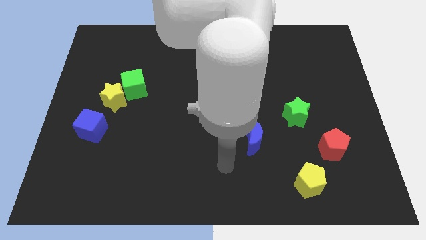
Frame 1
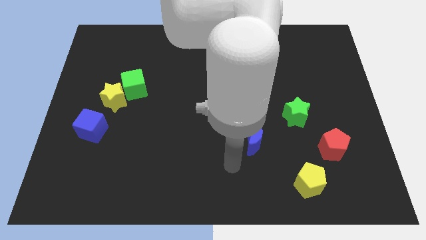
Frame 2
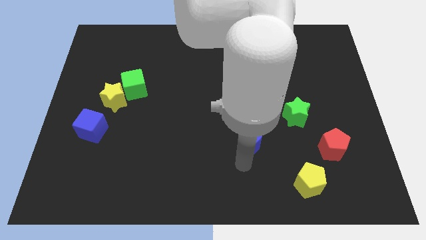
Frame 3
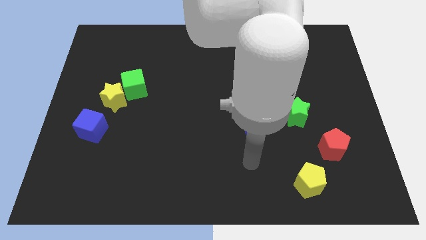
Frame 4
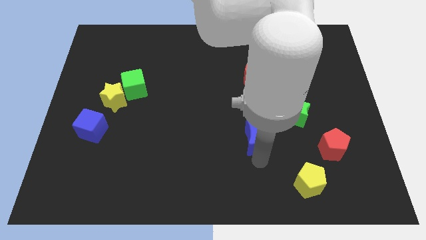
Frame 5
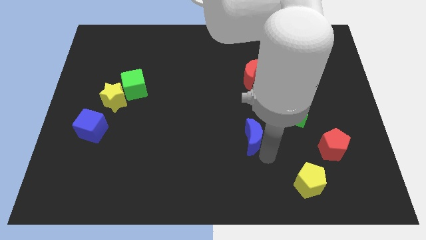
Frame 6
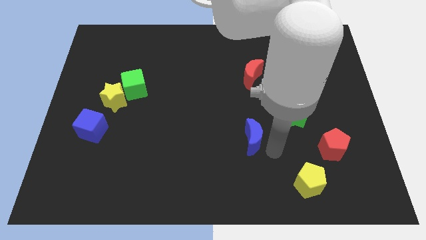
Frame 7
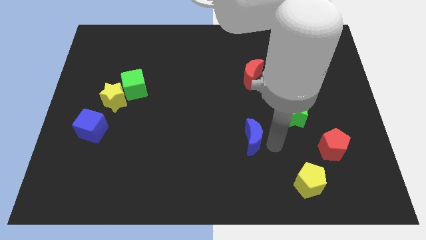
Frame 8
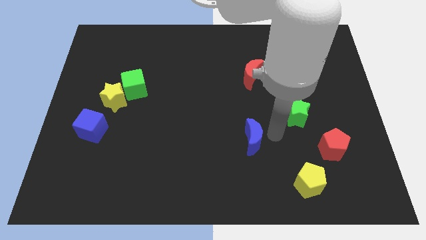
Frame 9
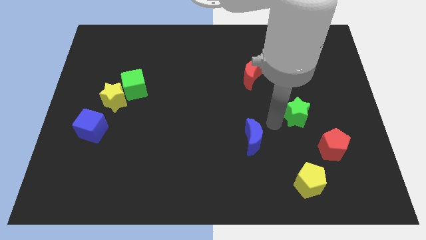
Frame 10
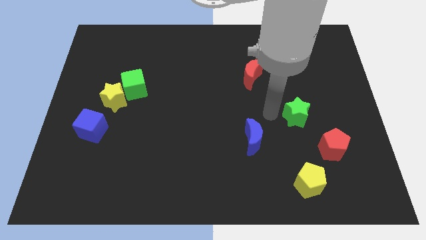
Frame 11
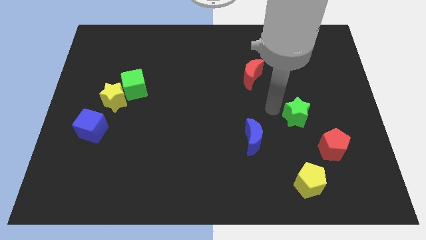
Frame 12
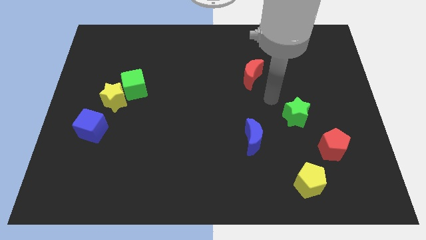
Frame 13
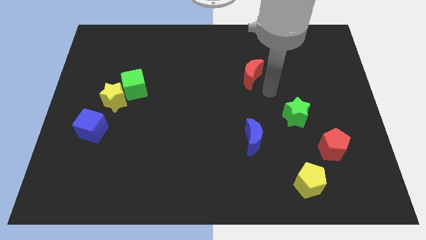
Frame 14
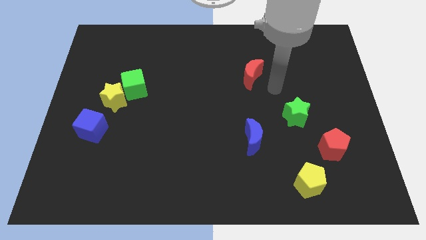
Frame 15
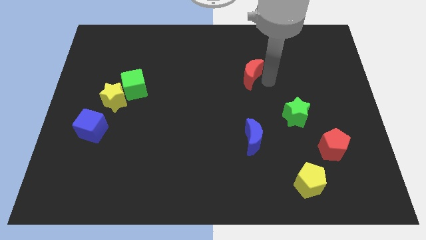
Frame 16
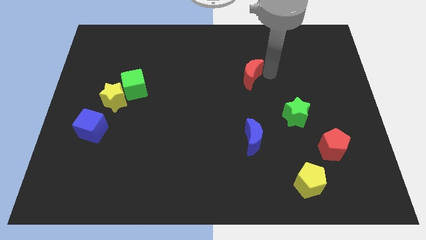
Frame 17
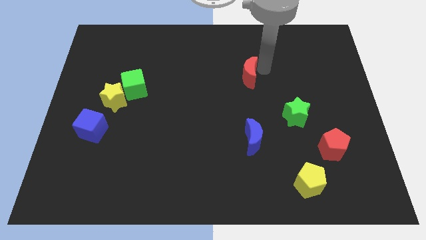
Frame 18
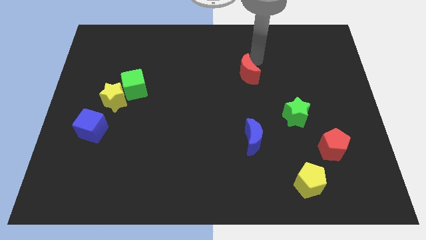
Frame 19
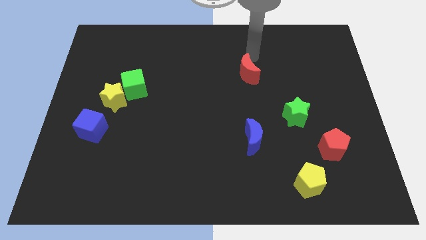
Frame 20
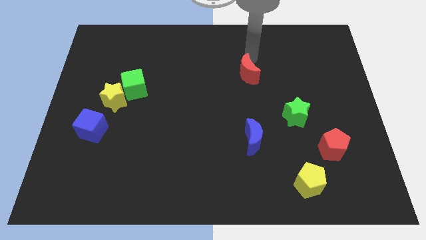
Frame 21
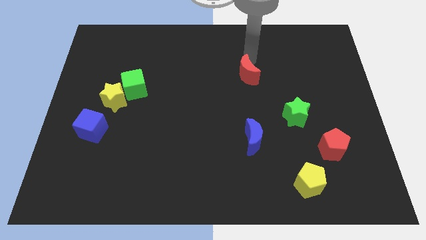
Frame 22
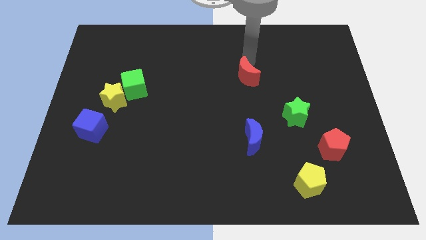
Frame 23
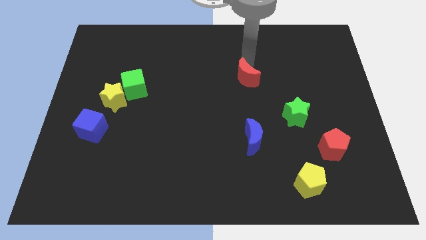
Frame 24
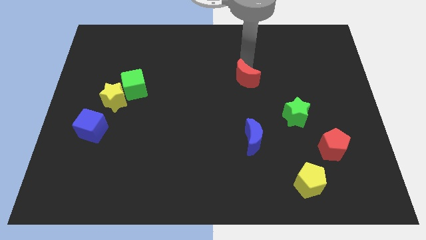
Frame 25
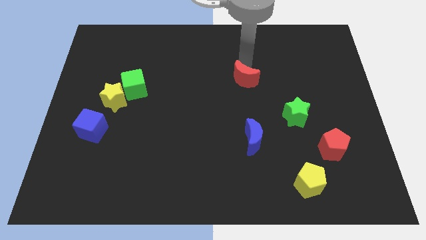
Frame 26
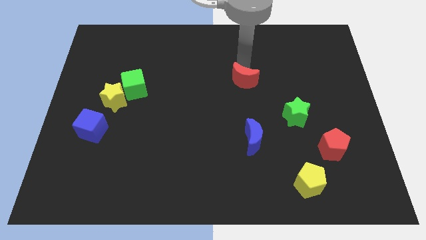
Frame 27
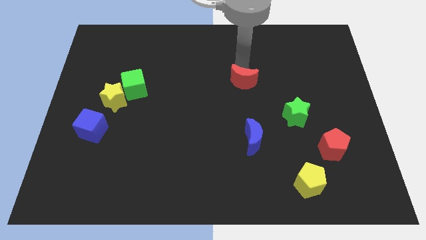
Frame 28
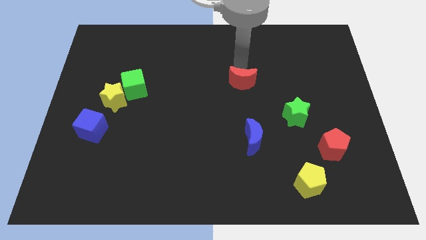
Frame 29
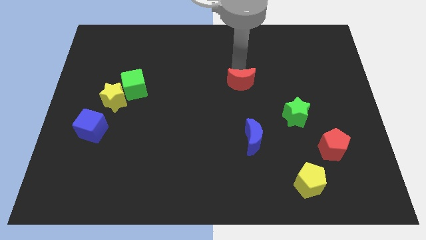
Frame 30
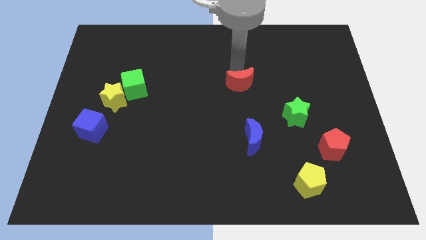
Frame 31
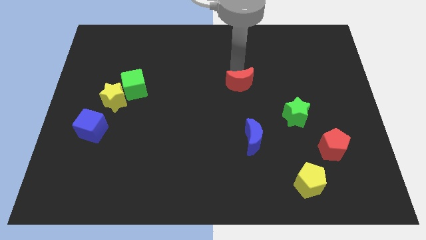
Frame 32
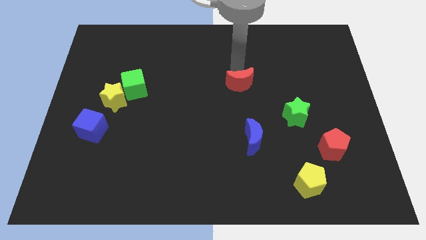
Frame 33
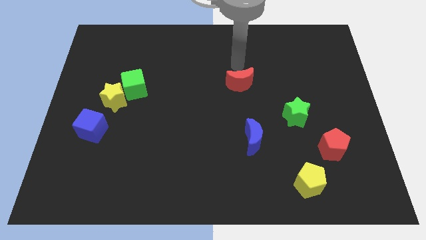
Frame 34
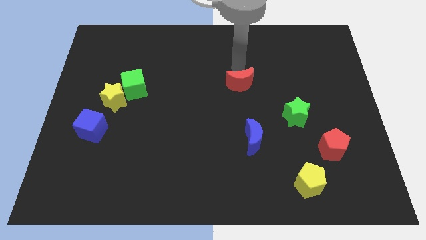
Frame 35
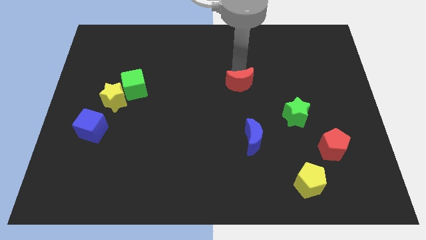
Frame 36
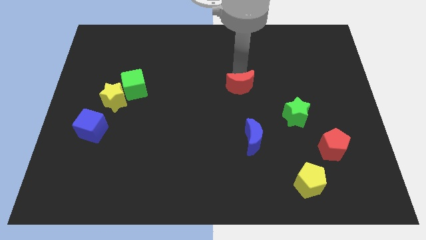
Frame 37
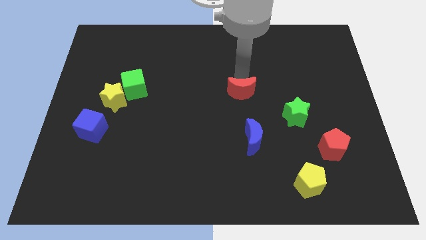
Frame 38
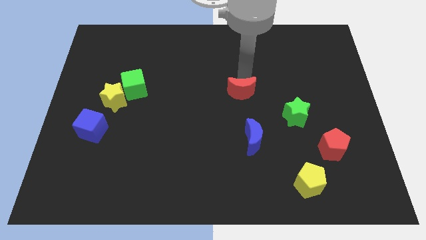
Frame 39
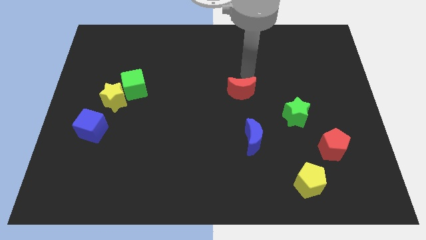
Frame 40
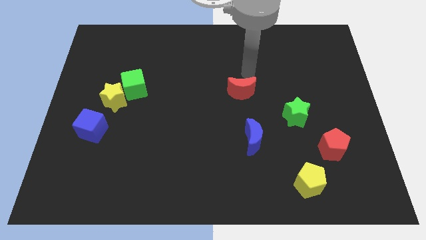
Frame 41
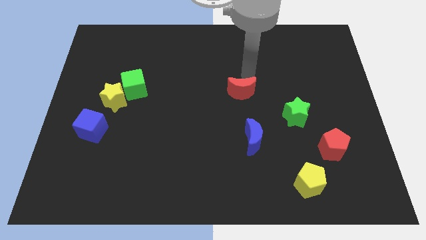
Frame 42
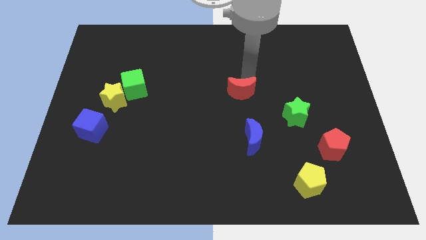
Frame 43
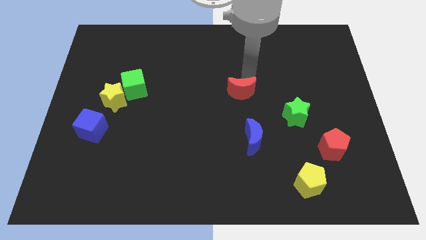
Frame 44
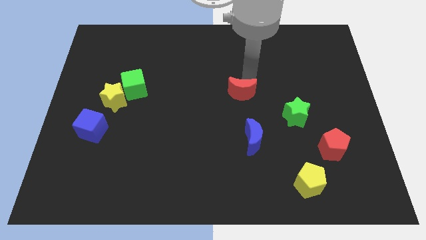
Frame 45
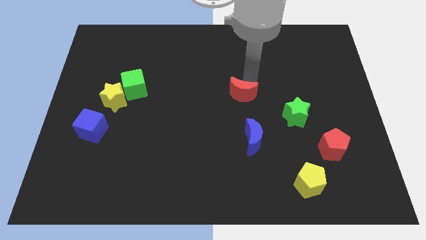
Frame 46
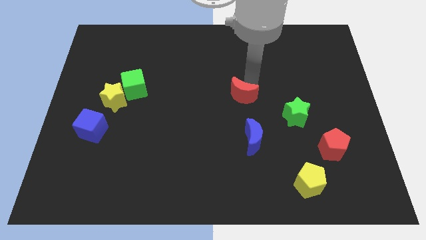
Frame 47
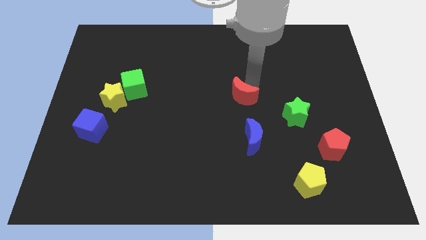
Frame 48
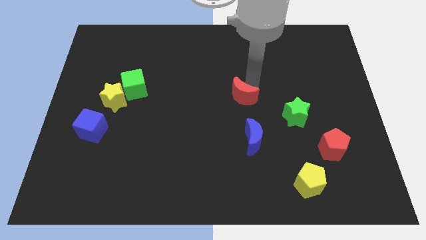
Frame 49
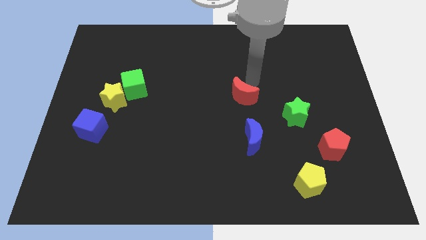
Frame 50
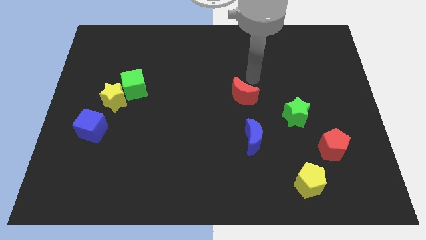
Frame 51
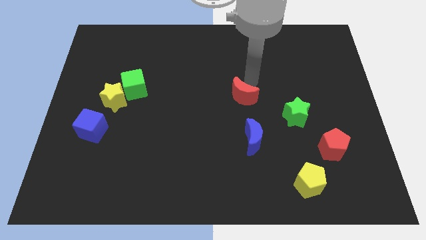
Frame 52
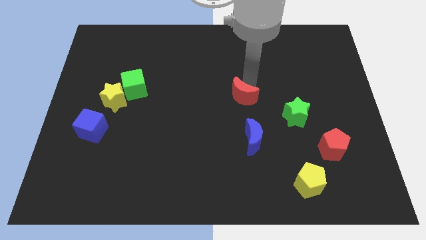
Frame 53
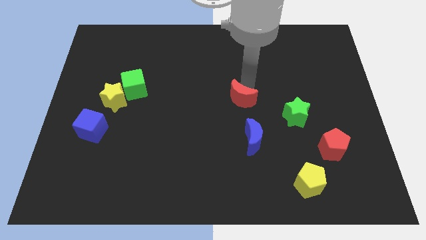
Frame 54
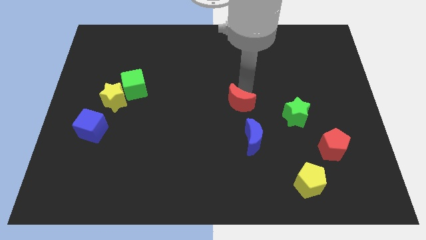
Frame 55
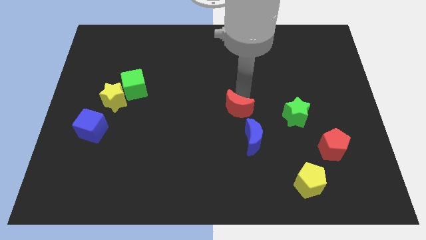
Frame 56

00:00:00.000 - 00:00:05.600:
put the red moon to the top left of the blue moon

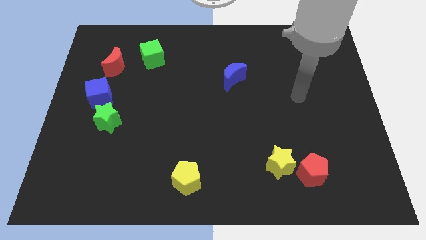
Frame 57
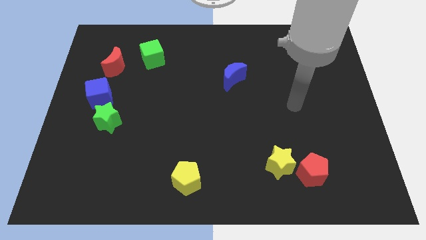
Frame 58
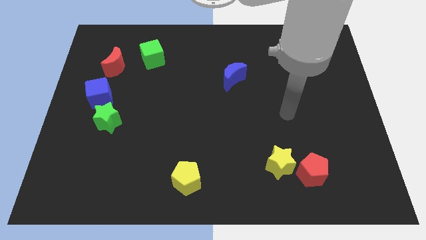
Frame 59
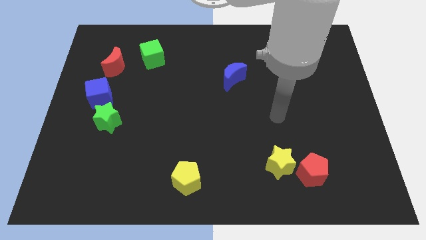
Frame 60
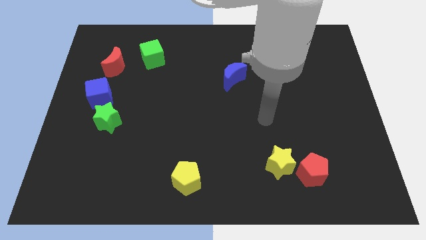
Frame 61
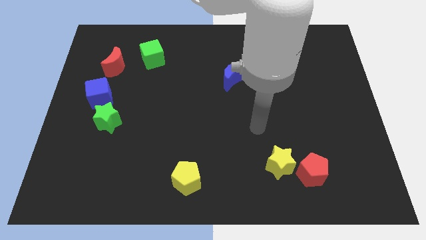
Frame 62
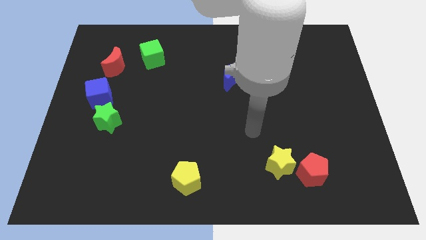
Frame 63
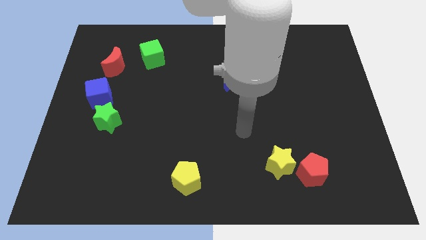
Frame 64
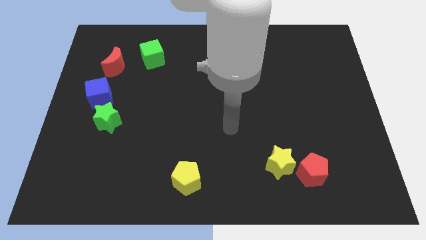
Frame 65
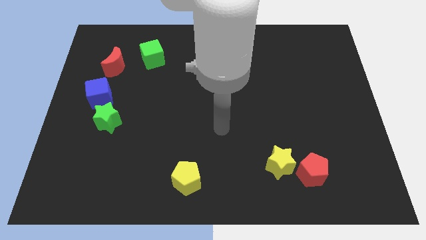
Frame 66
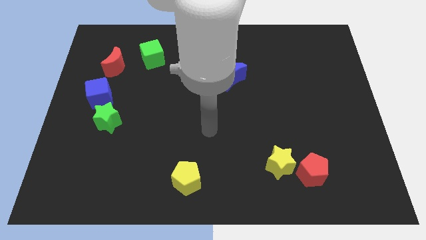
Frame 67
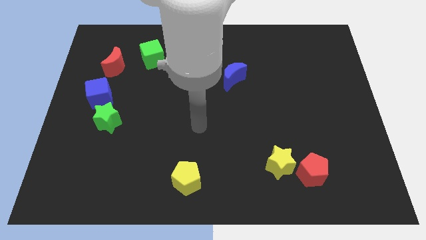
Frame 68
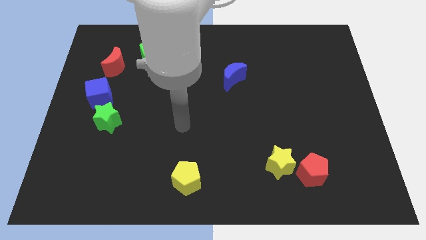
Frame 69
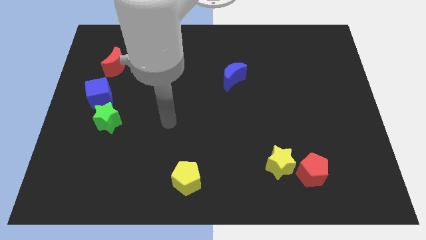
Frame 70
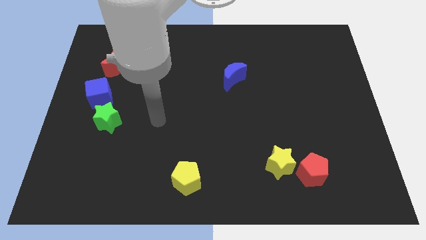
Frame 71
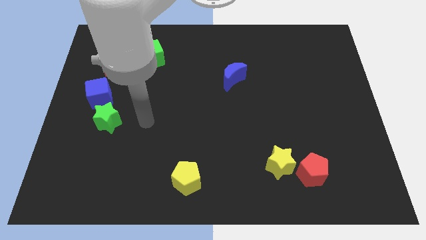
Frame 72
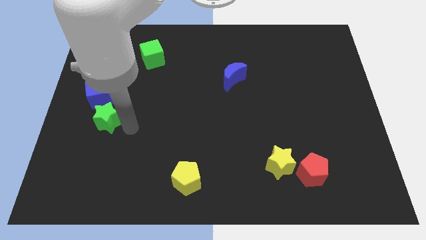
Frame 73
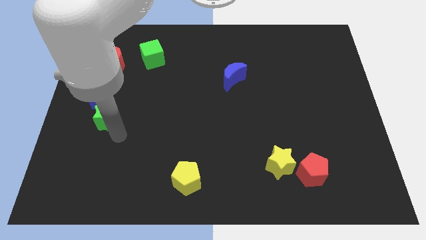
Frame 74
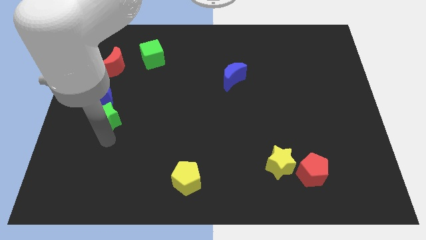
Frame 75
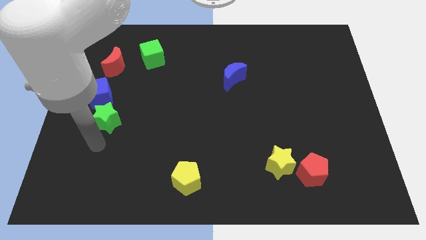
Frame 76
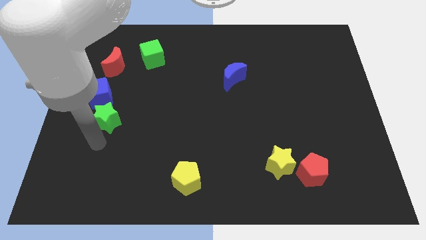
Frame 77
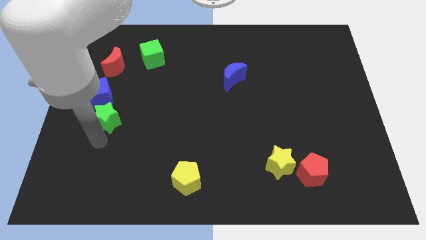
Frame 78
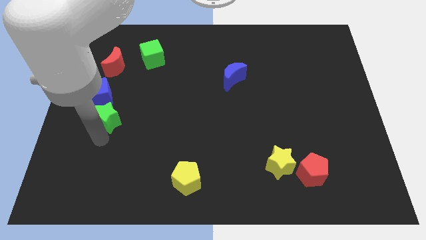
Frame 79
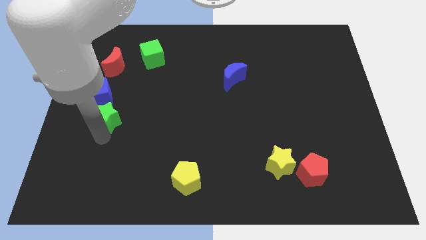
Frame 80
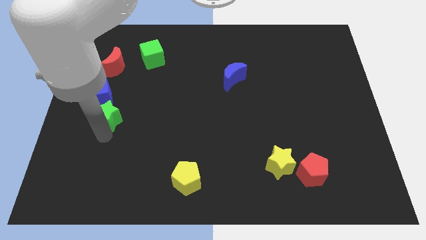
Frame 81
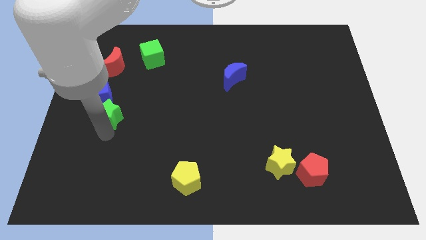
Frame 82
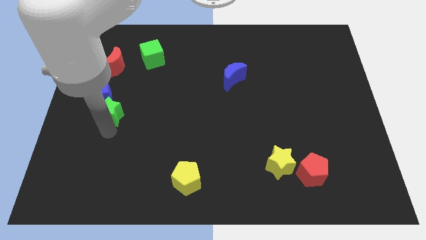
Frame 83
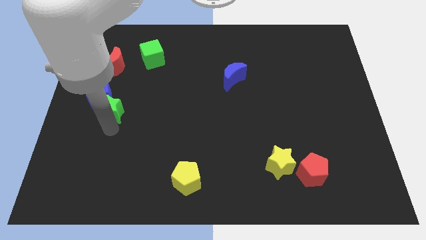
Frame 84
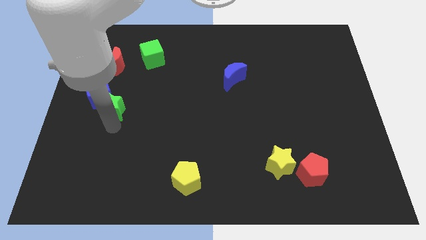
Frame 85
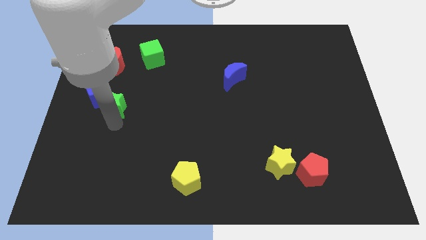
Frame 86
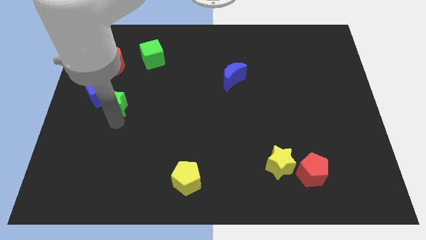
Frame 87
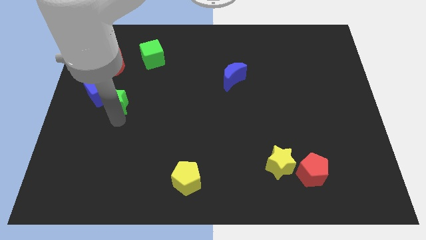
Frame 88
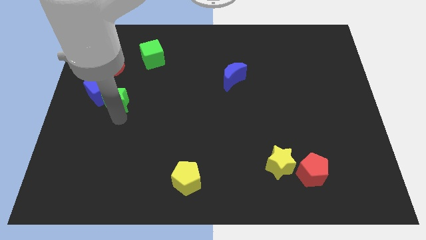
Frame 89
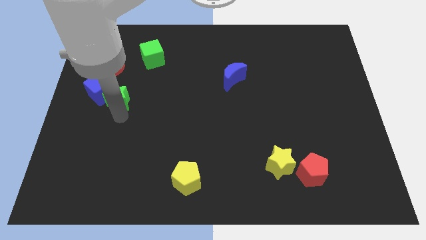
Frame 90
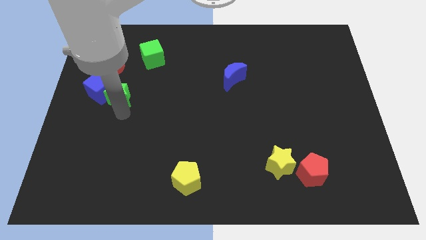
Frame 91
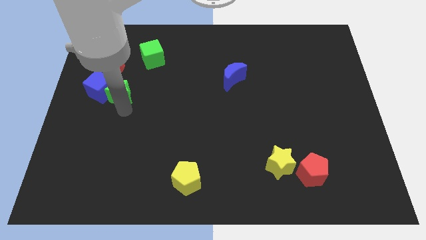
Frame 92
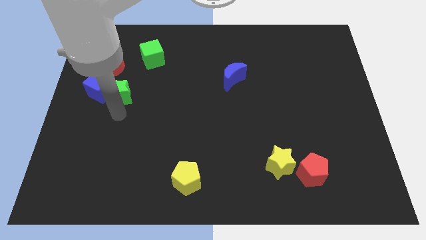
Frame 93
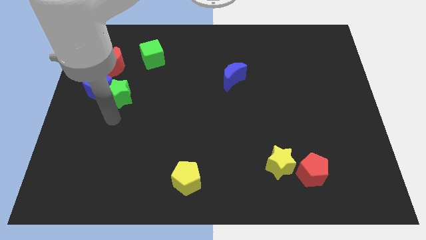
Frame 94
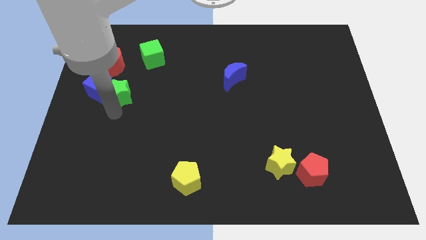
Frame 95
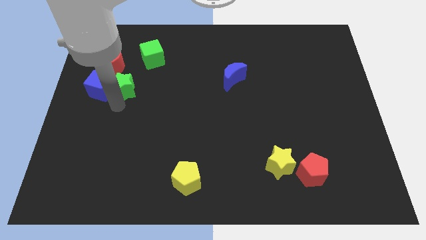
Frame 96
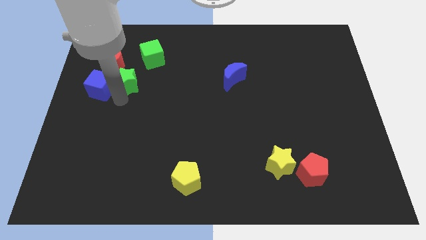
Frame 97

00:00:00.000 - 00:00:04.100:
put the green star diagonally down and to the left of the green cube
